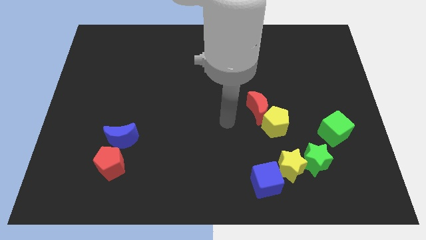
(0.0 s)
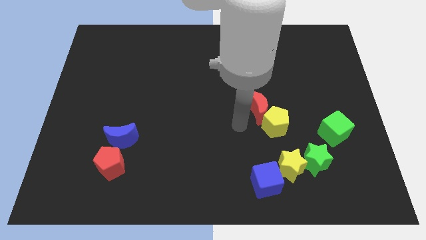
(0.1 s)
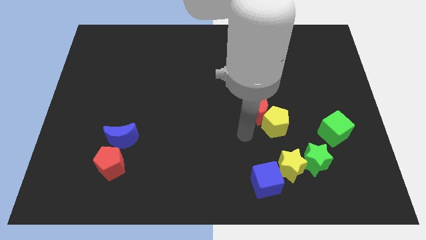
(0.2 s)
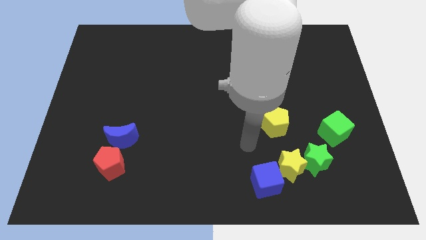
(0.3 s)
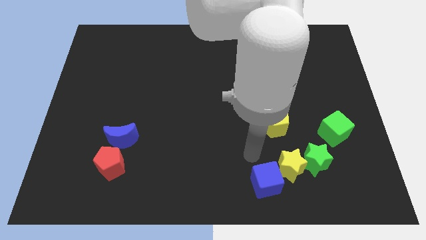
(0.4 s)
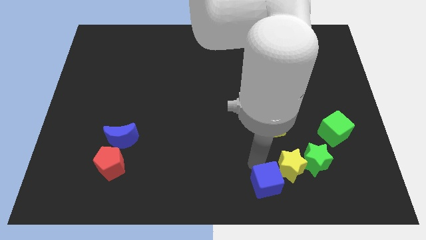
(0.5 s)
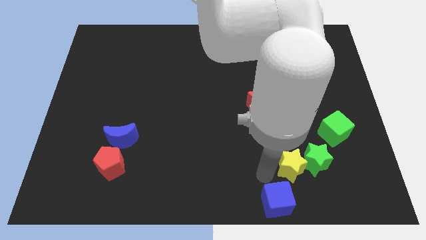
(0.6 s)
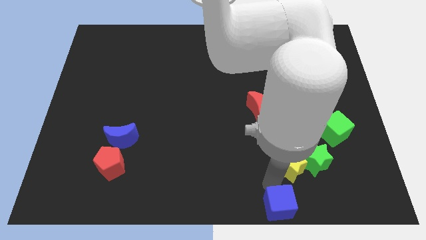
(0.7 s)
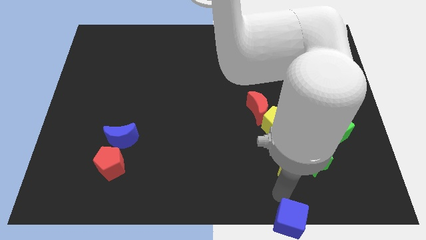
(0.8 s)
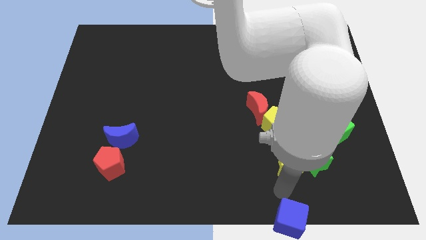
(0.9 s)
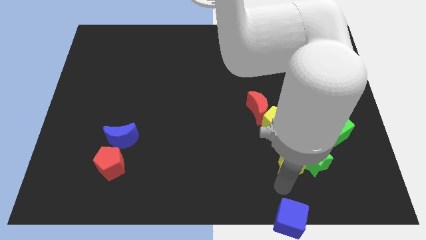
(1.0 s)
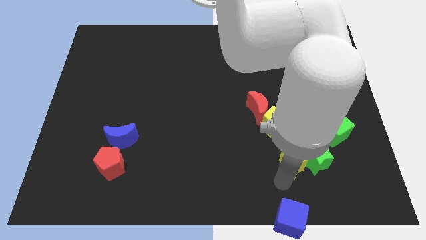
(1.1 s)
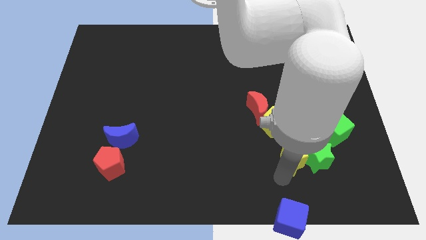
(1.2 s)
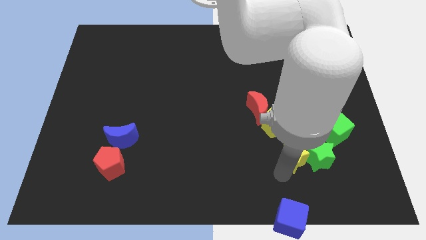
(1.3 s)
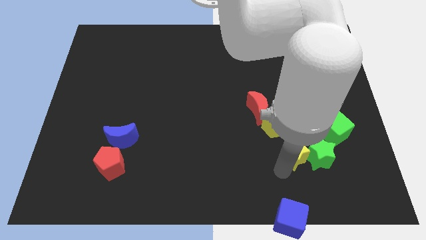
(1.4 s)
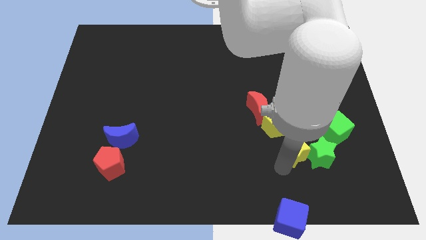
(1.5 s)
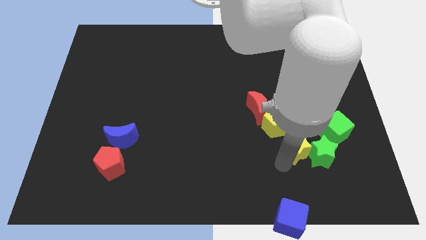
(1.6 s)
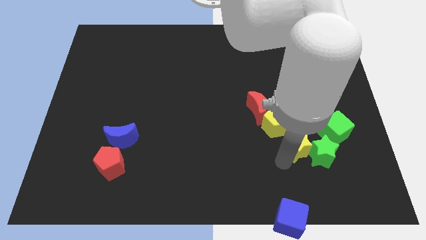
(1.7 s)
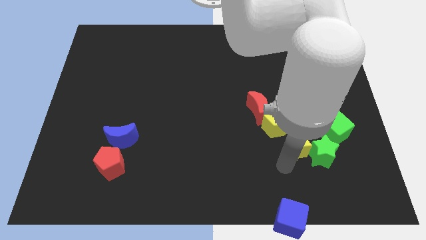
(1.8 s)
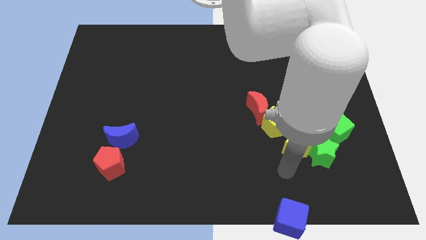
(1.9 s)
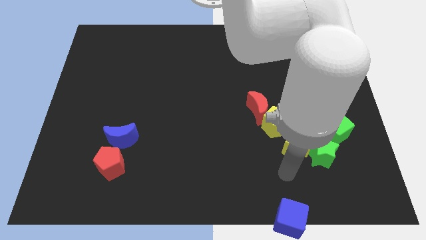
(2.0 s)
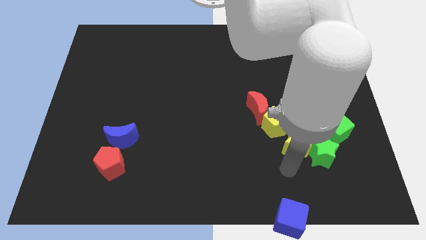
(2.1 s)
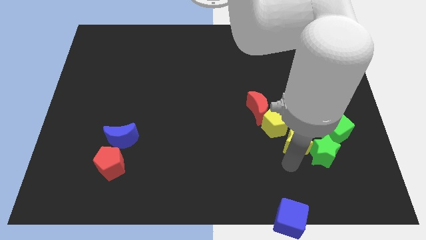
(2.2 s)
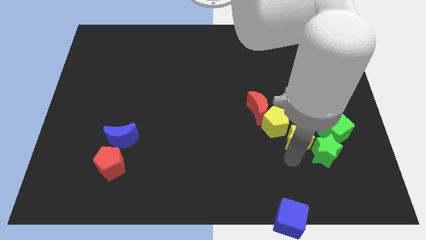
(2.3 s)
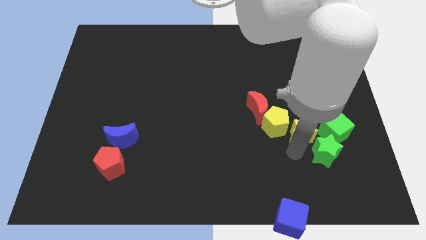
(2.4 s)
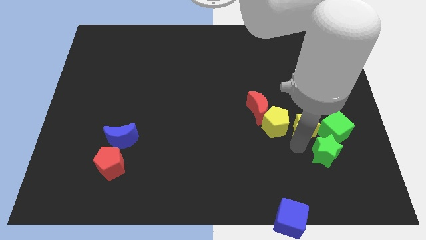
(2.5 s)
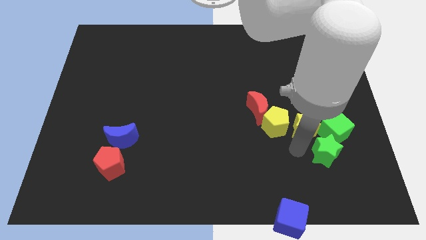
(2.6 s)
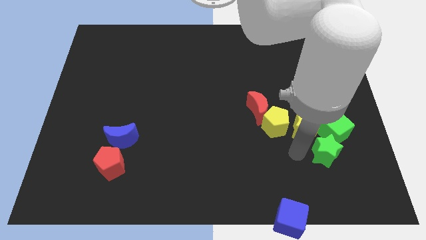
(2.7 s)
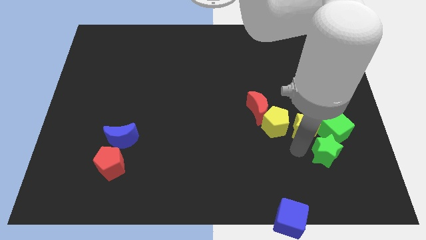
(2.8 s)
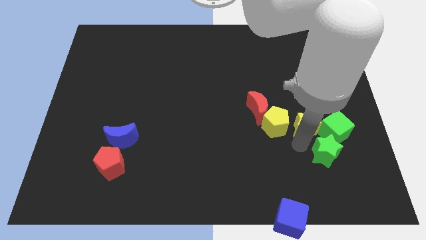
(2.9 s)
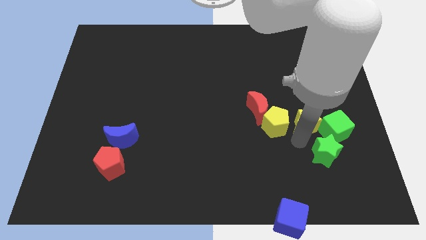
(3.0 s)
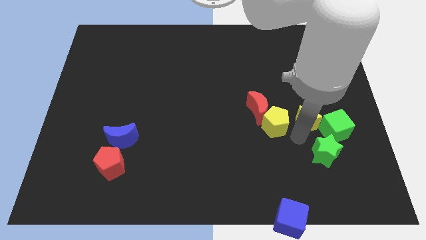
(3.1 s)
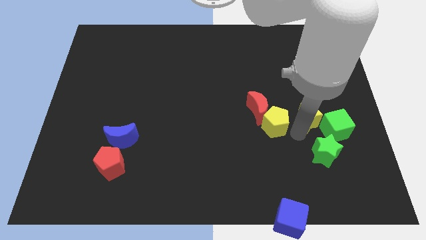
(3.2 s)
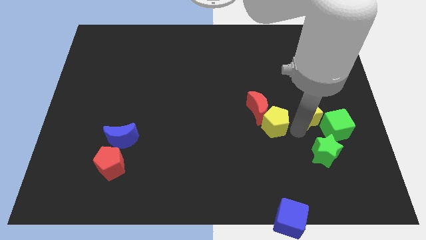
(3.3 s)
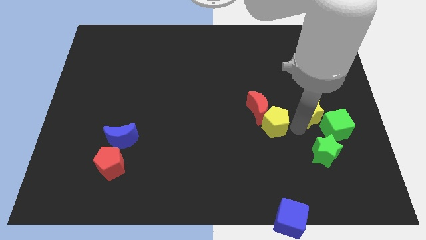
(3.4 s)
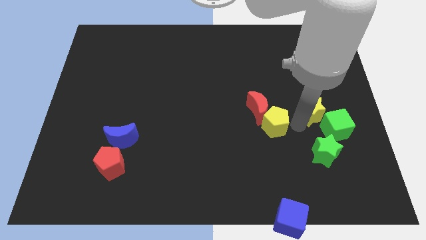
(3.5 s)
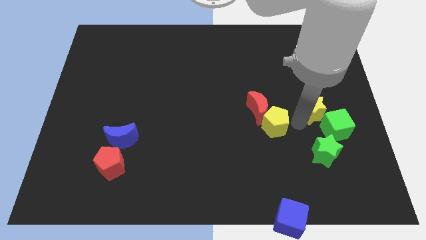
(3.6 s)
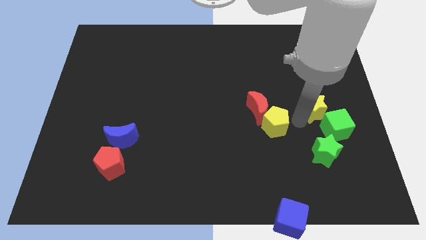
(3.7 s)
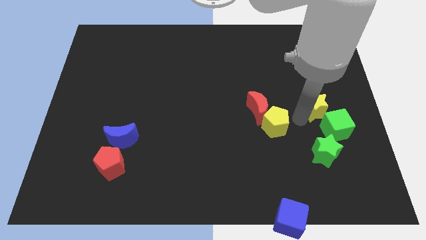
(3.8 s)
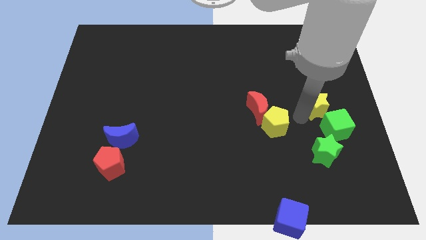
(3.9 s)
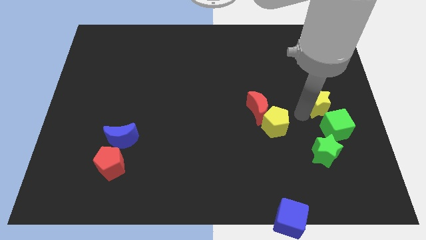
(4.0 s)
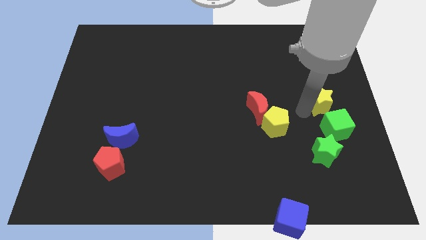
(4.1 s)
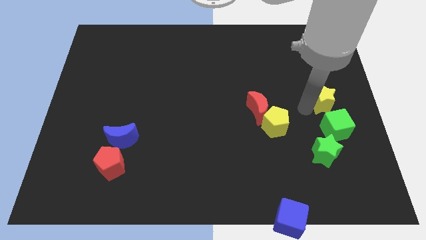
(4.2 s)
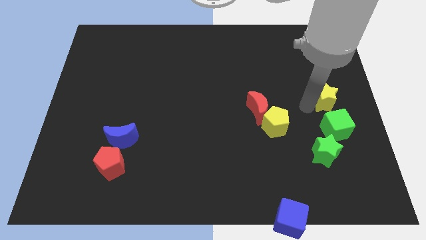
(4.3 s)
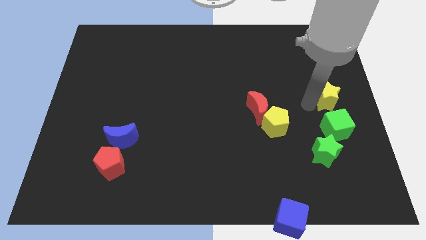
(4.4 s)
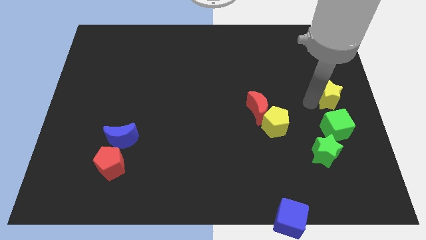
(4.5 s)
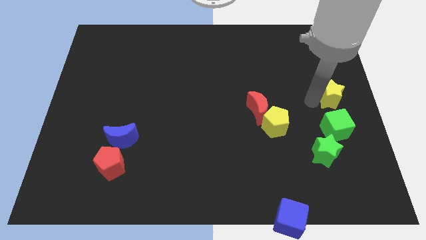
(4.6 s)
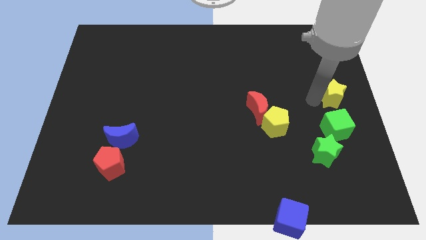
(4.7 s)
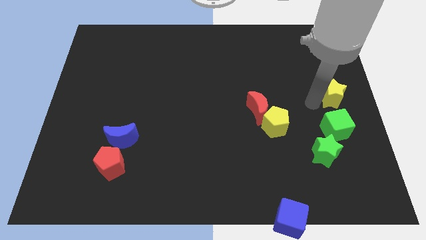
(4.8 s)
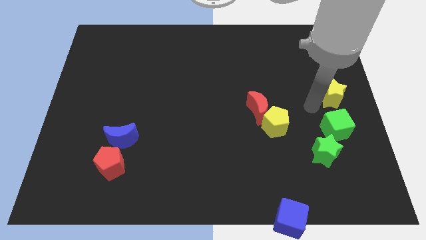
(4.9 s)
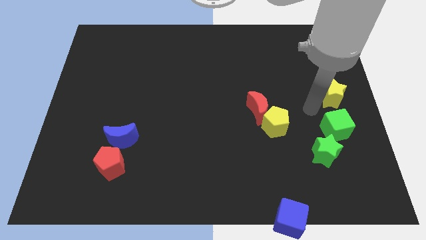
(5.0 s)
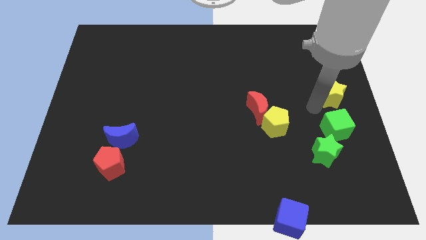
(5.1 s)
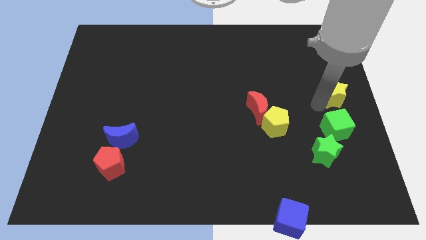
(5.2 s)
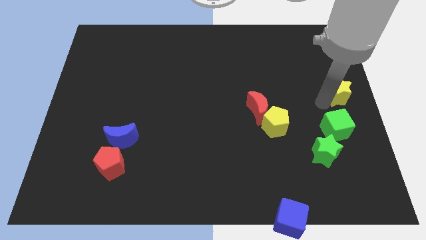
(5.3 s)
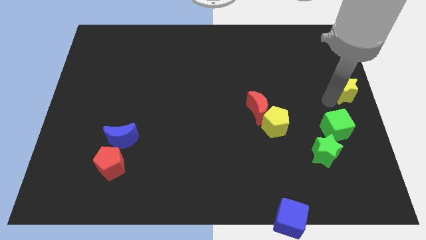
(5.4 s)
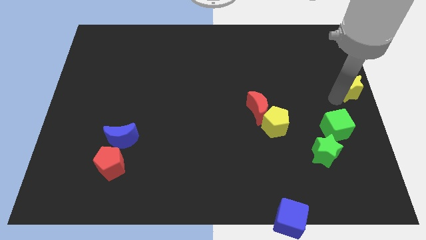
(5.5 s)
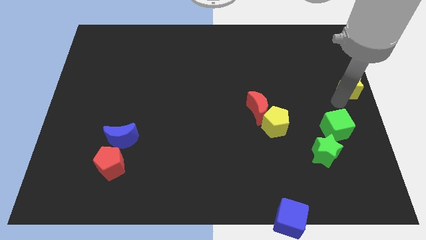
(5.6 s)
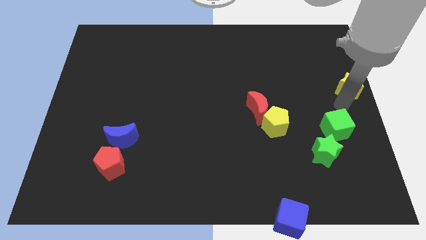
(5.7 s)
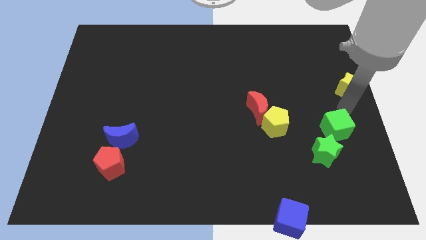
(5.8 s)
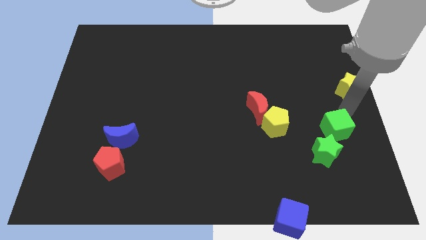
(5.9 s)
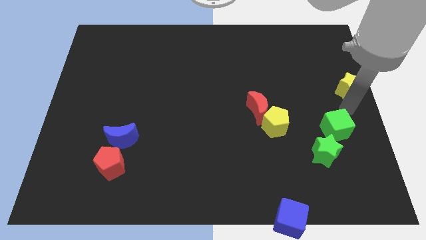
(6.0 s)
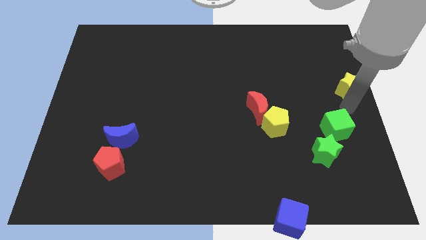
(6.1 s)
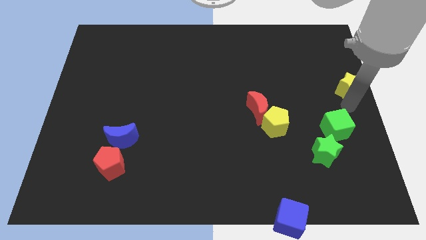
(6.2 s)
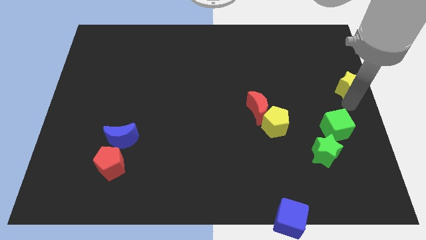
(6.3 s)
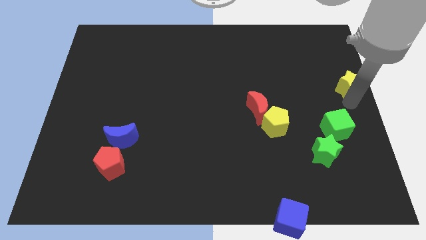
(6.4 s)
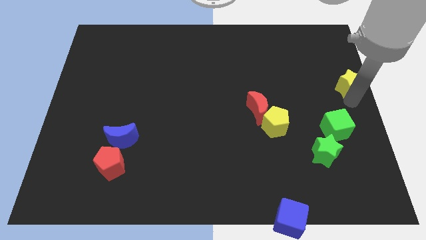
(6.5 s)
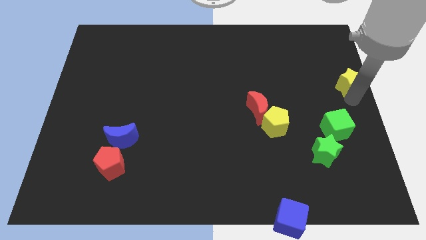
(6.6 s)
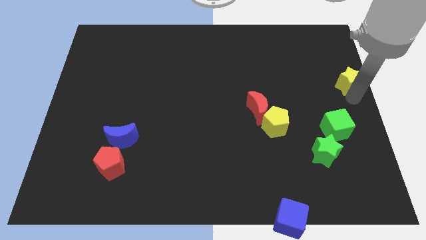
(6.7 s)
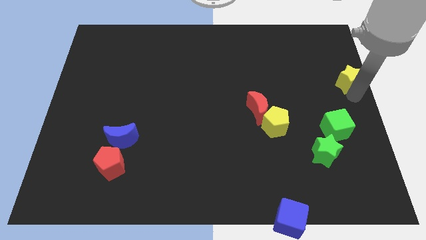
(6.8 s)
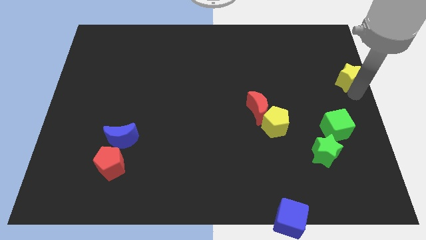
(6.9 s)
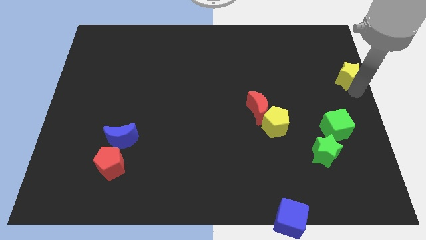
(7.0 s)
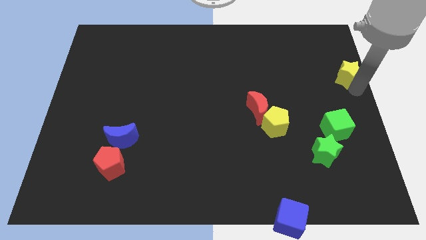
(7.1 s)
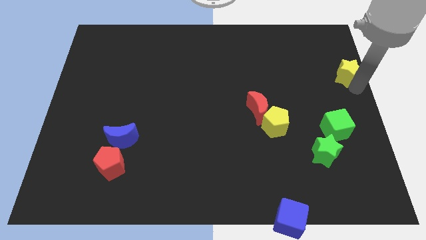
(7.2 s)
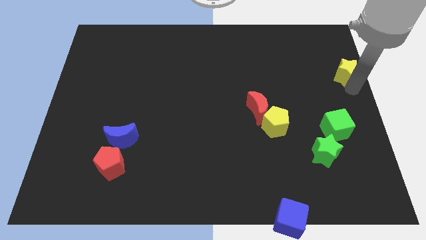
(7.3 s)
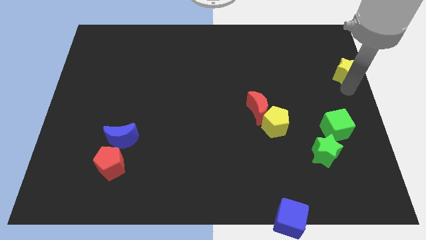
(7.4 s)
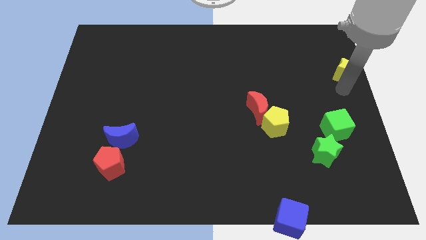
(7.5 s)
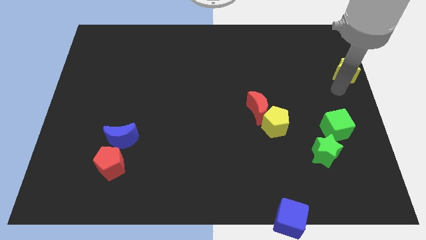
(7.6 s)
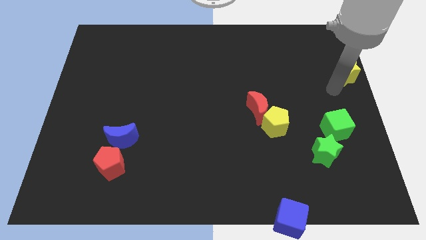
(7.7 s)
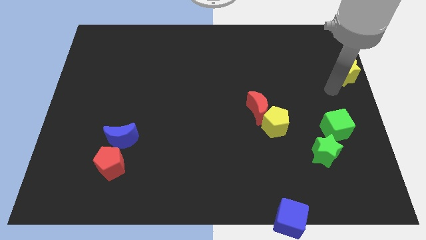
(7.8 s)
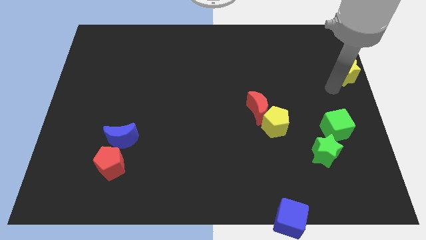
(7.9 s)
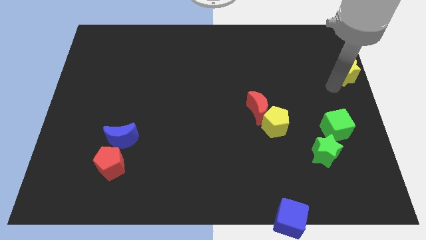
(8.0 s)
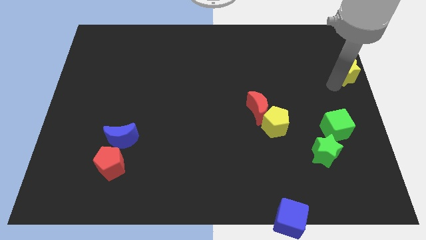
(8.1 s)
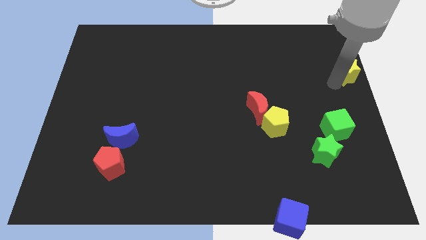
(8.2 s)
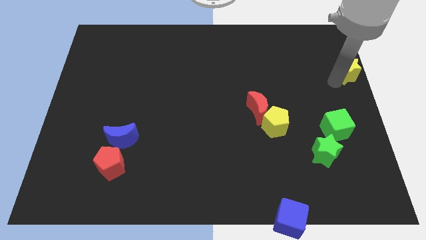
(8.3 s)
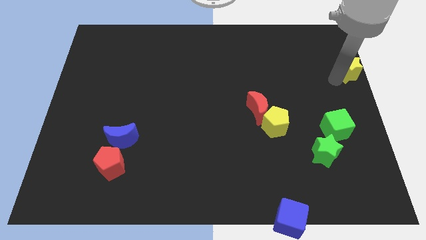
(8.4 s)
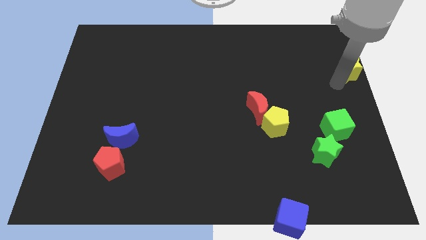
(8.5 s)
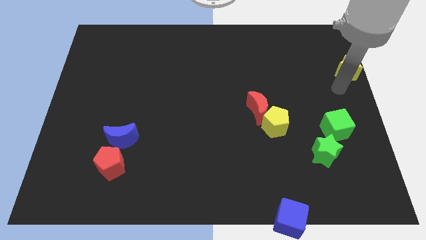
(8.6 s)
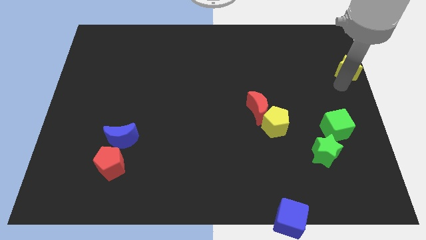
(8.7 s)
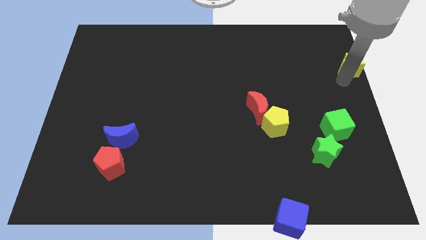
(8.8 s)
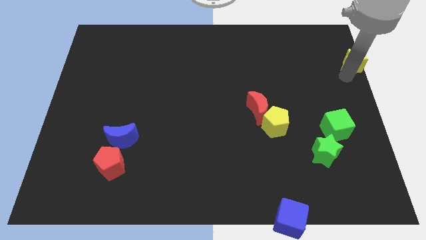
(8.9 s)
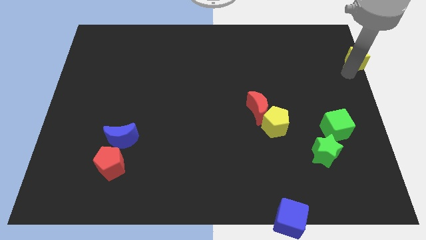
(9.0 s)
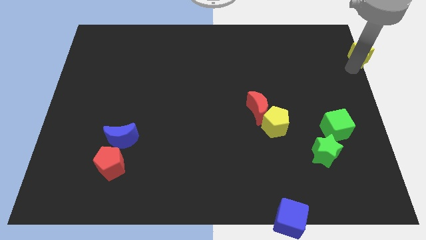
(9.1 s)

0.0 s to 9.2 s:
put the yellow star to the top right
